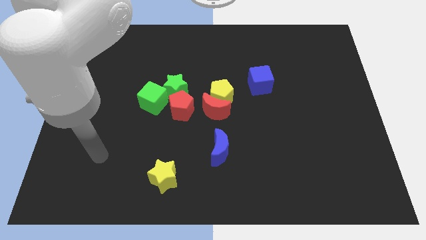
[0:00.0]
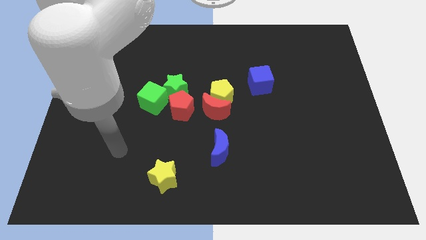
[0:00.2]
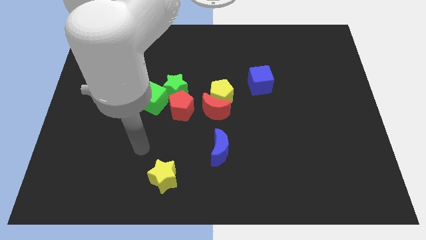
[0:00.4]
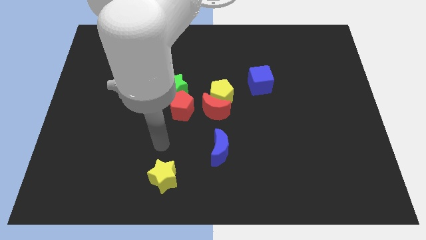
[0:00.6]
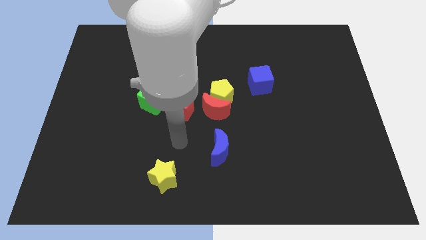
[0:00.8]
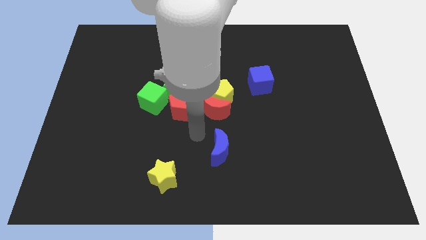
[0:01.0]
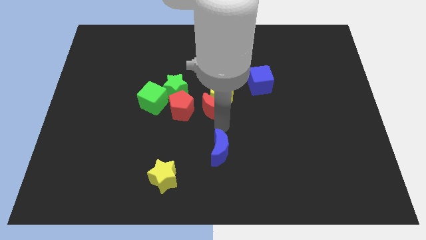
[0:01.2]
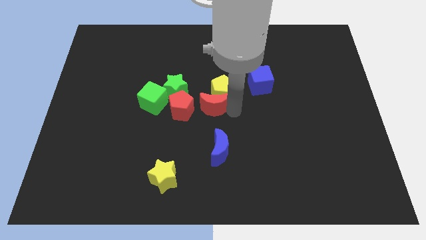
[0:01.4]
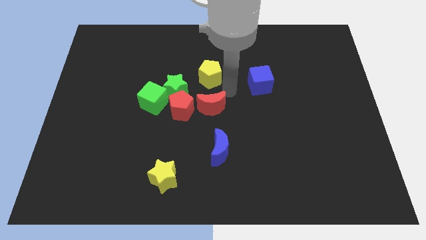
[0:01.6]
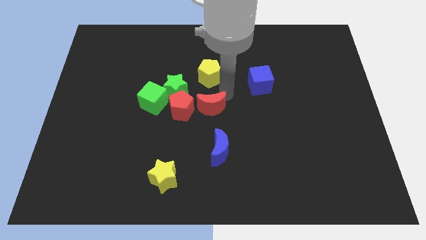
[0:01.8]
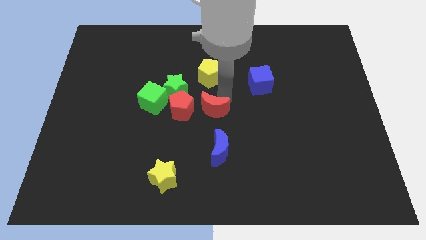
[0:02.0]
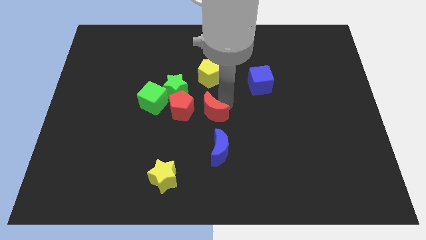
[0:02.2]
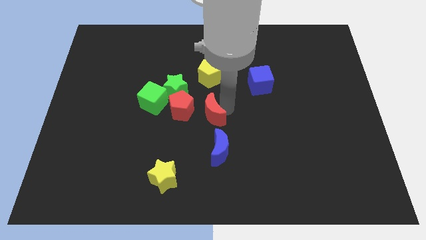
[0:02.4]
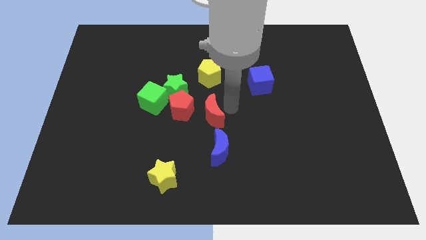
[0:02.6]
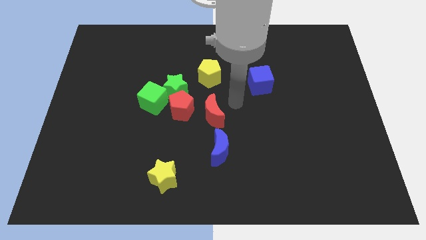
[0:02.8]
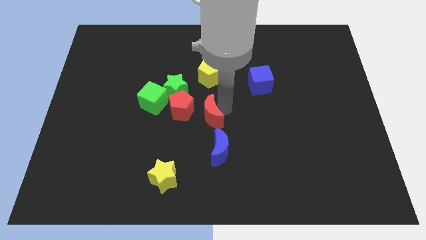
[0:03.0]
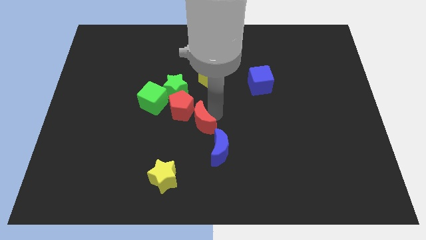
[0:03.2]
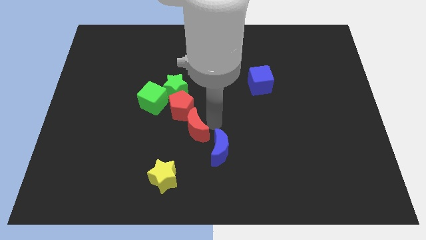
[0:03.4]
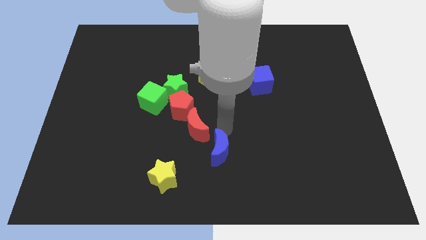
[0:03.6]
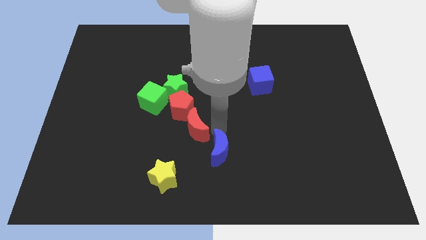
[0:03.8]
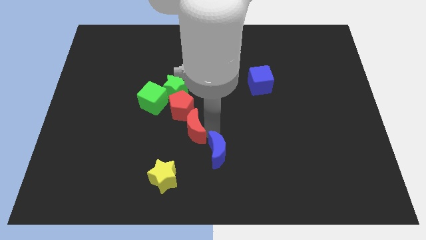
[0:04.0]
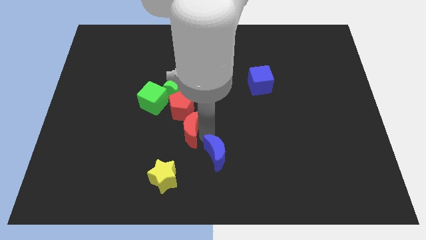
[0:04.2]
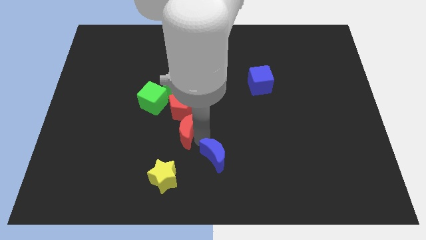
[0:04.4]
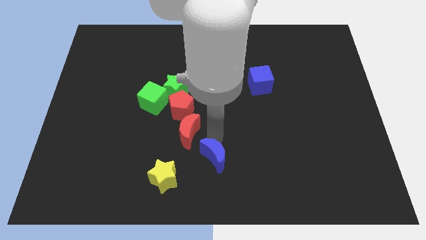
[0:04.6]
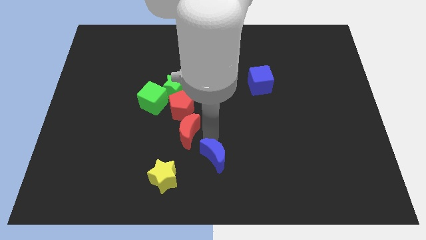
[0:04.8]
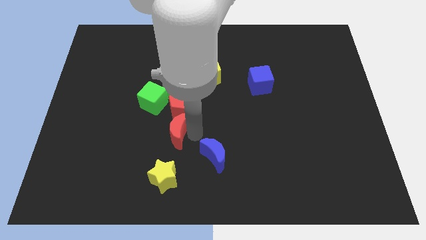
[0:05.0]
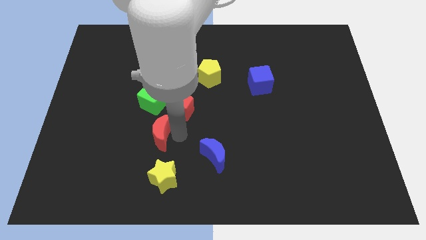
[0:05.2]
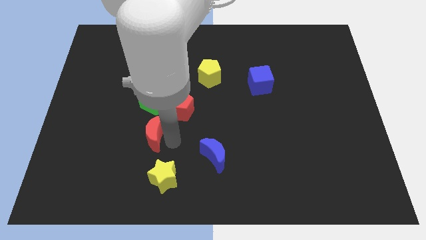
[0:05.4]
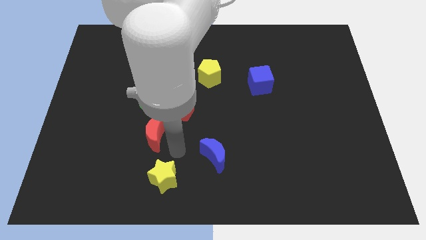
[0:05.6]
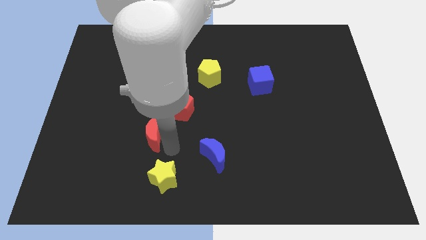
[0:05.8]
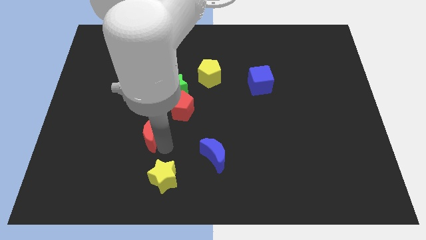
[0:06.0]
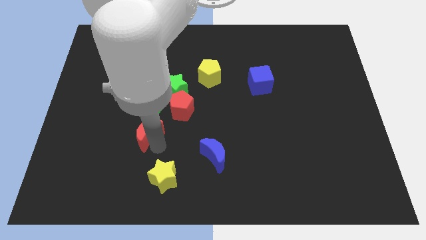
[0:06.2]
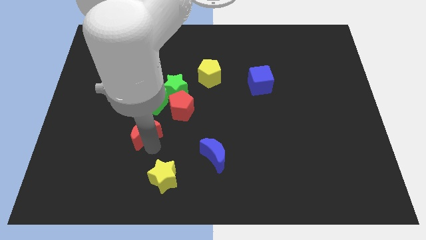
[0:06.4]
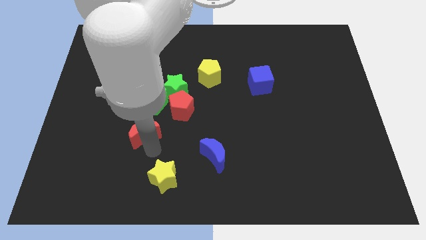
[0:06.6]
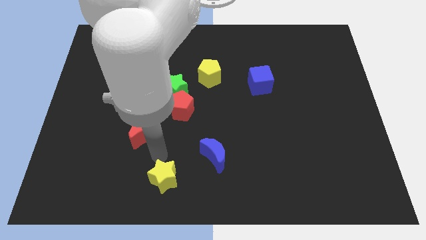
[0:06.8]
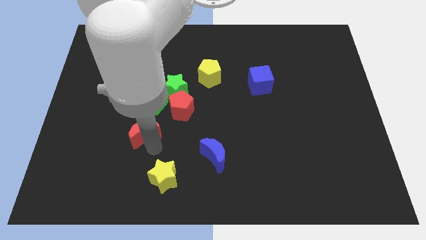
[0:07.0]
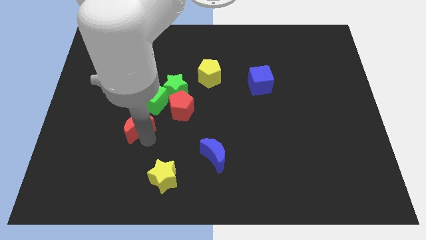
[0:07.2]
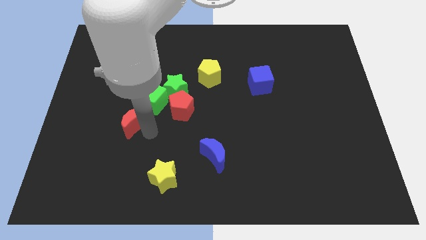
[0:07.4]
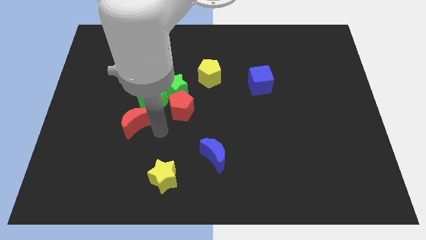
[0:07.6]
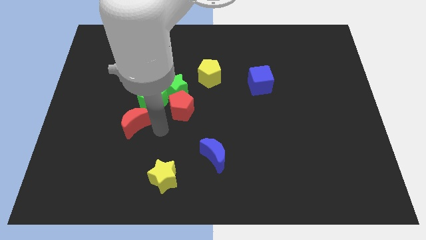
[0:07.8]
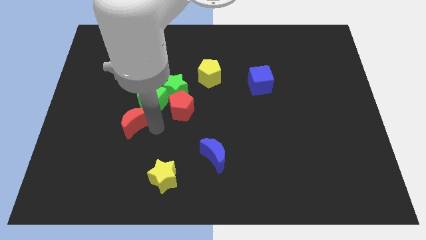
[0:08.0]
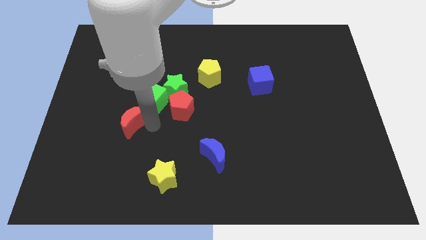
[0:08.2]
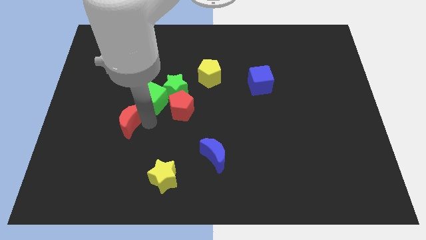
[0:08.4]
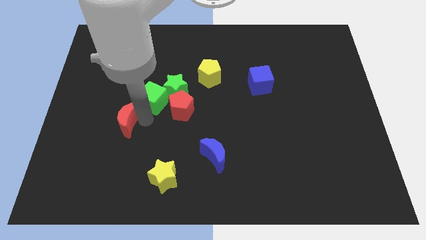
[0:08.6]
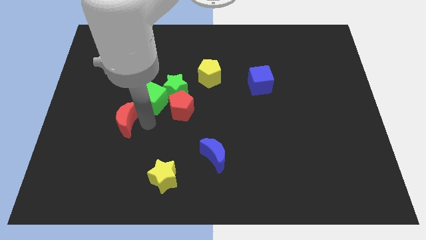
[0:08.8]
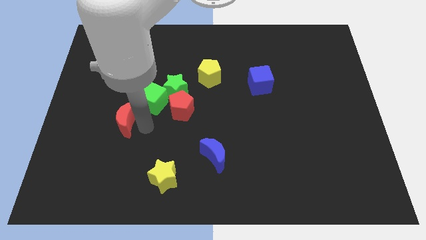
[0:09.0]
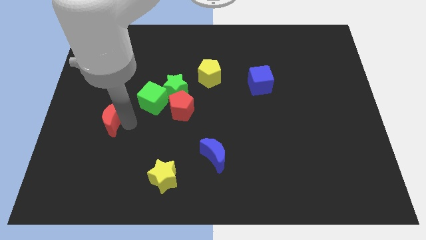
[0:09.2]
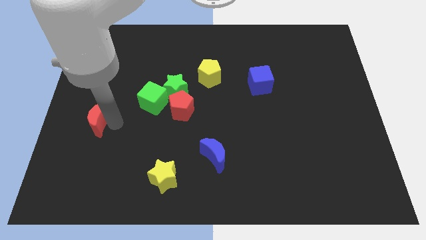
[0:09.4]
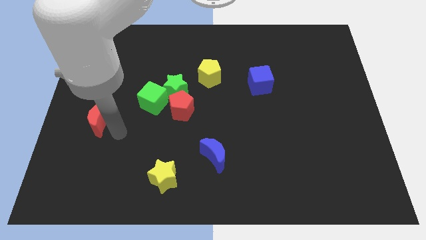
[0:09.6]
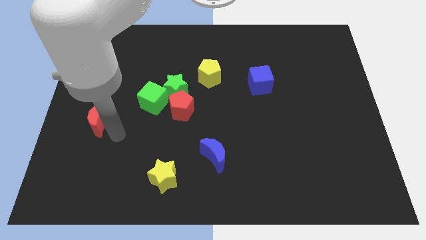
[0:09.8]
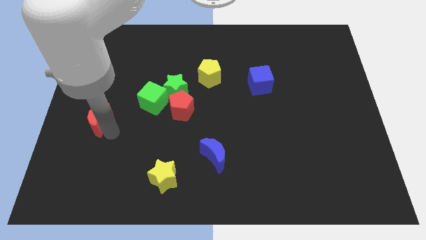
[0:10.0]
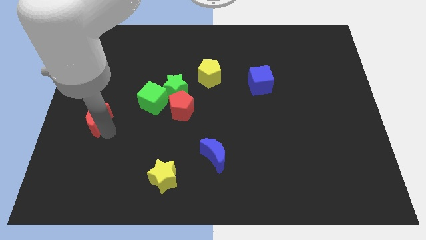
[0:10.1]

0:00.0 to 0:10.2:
put the red moon to the left side
